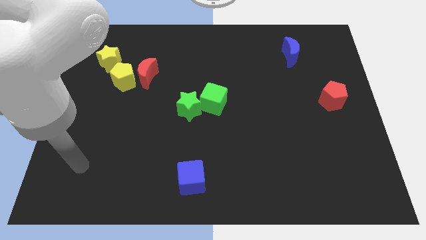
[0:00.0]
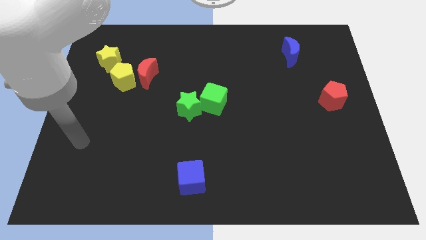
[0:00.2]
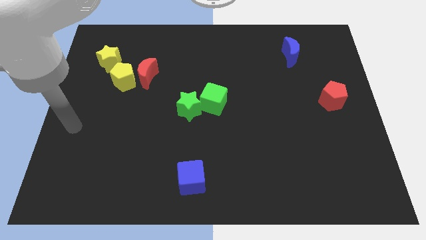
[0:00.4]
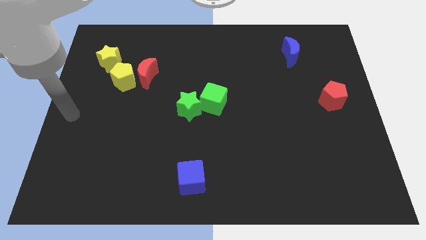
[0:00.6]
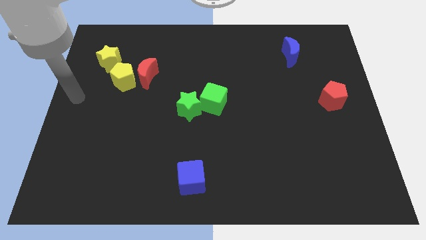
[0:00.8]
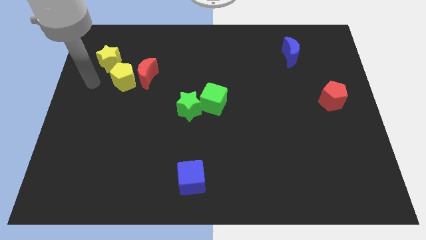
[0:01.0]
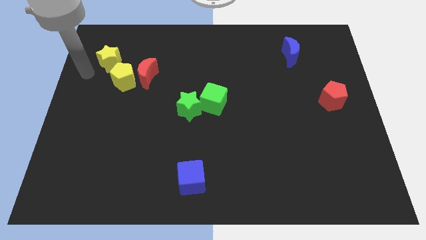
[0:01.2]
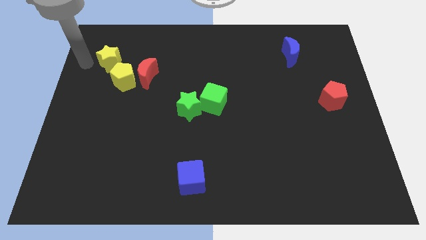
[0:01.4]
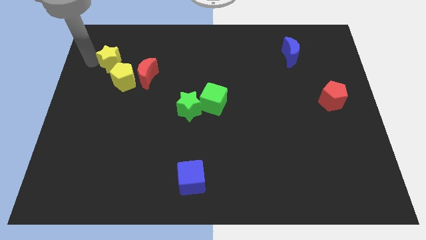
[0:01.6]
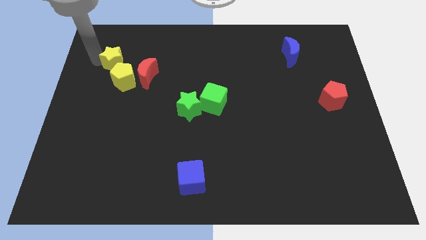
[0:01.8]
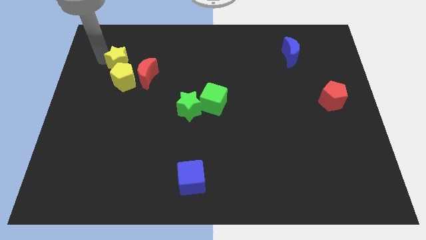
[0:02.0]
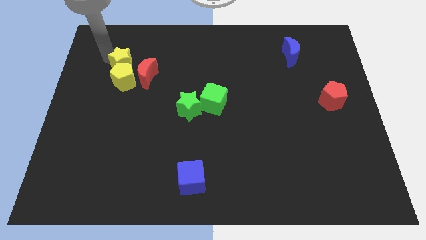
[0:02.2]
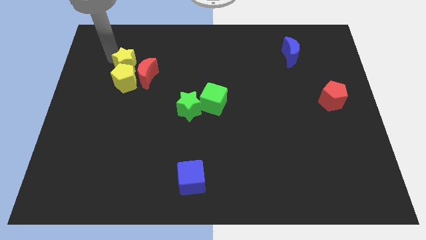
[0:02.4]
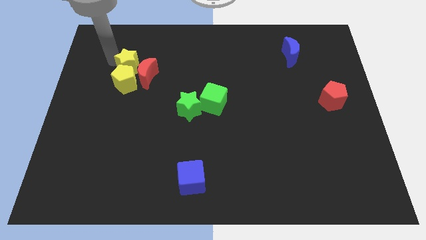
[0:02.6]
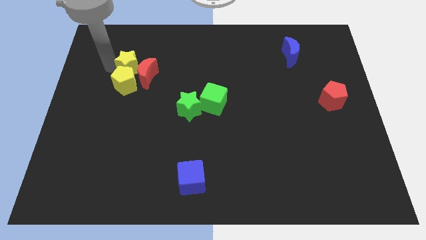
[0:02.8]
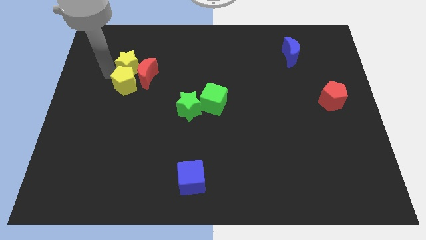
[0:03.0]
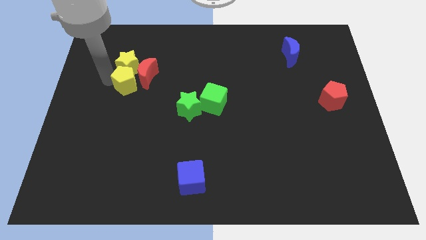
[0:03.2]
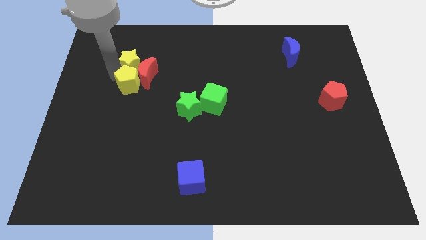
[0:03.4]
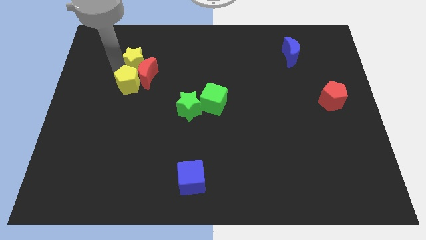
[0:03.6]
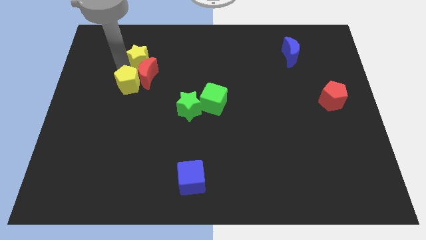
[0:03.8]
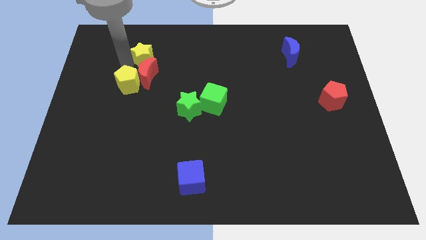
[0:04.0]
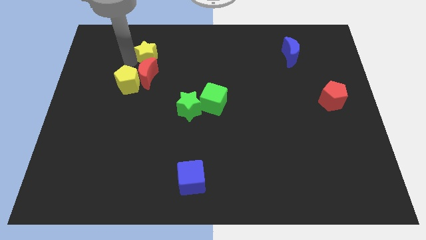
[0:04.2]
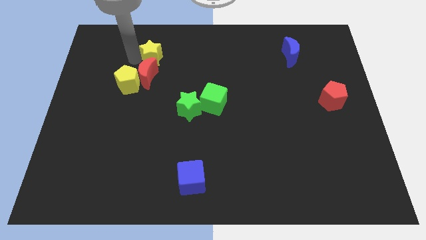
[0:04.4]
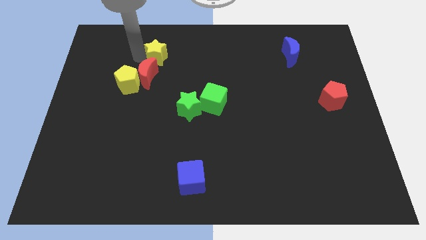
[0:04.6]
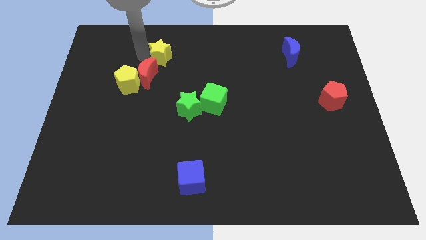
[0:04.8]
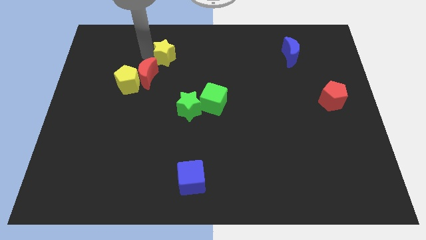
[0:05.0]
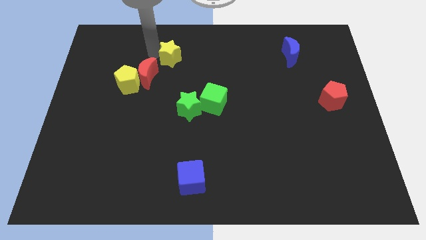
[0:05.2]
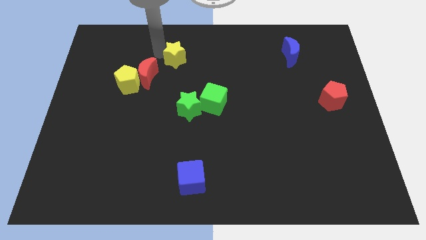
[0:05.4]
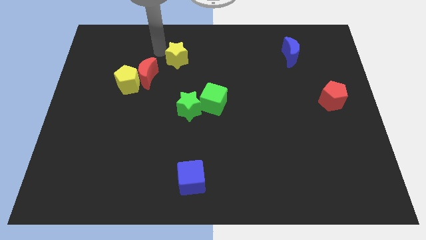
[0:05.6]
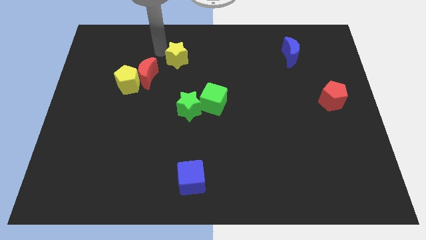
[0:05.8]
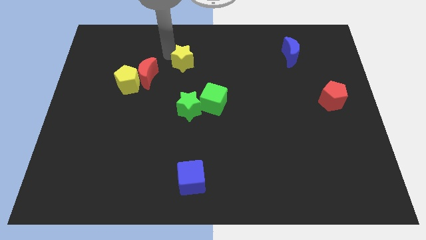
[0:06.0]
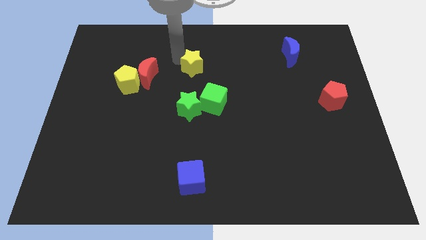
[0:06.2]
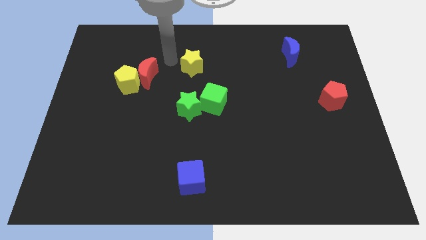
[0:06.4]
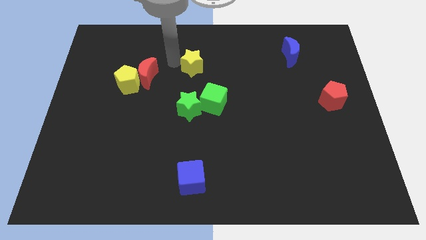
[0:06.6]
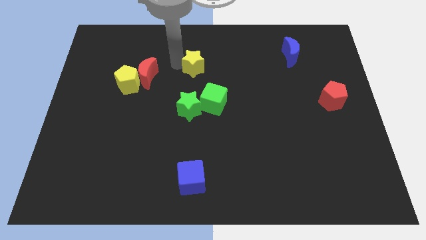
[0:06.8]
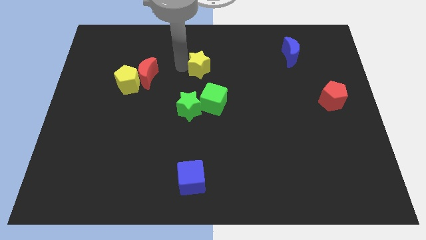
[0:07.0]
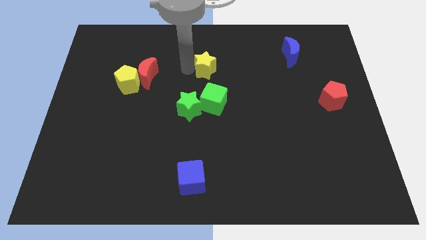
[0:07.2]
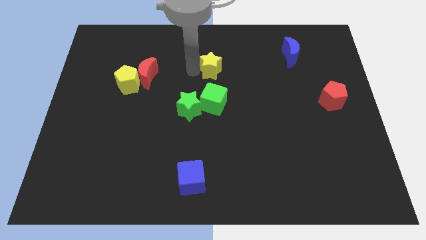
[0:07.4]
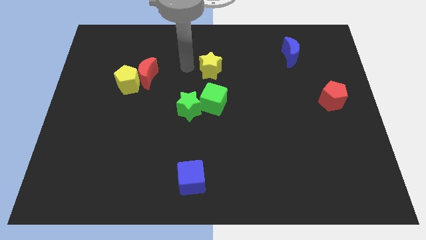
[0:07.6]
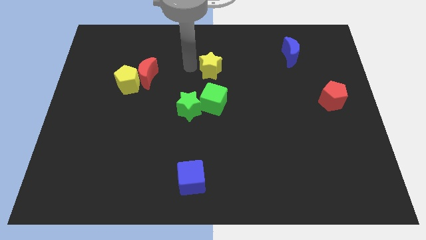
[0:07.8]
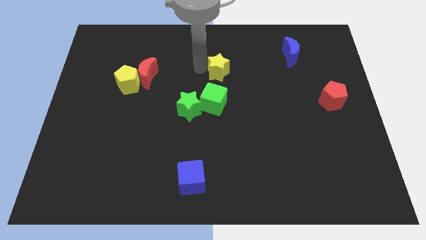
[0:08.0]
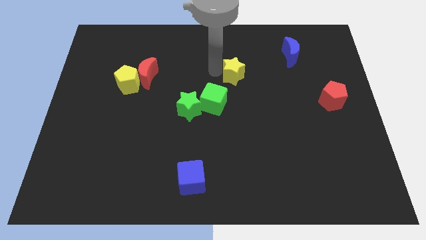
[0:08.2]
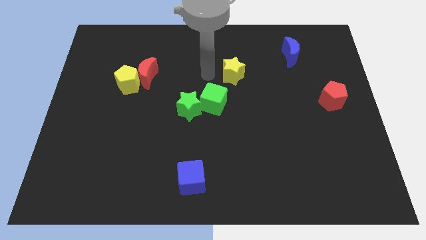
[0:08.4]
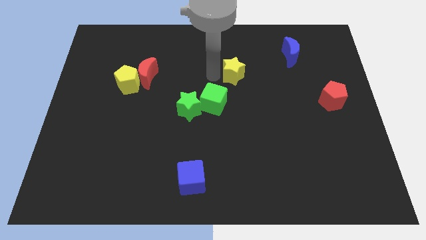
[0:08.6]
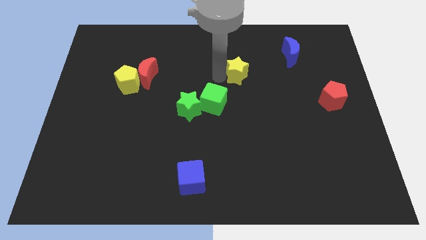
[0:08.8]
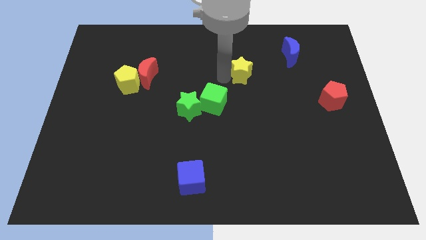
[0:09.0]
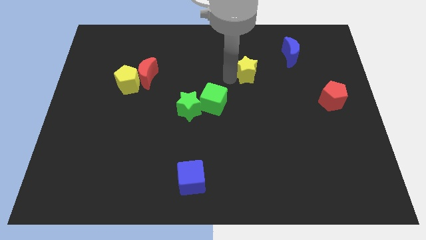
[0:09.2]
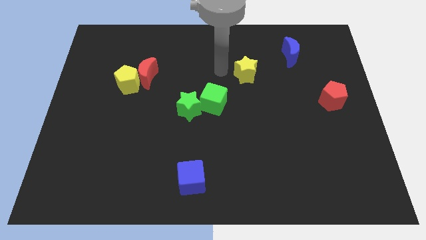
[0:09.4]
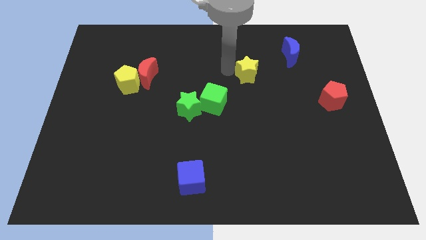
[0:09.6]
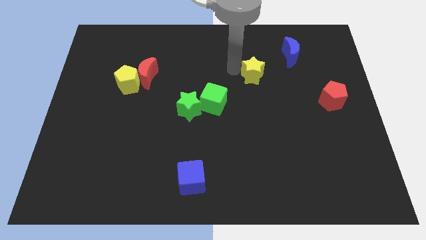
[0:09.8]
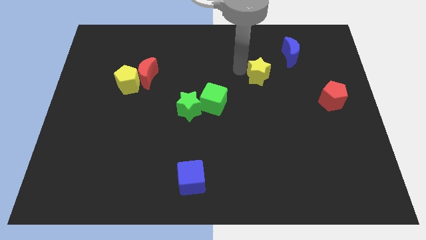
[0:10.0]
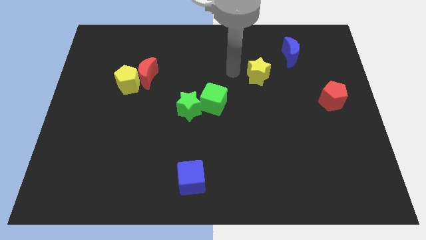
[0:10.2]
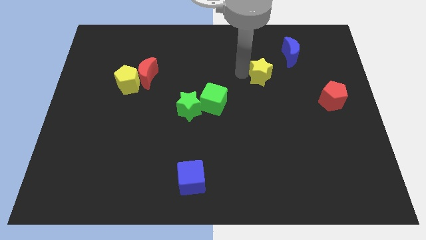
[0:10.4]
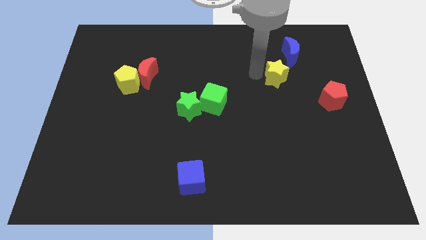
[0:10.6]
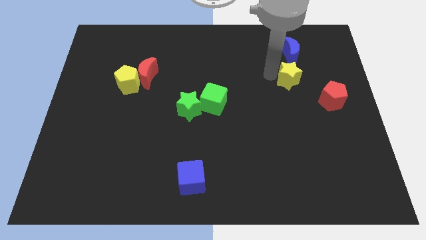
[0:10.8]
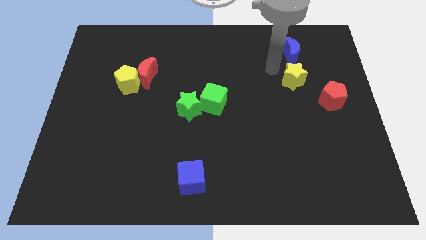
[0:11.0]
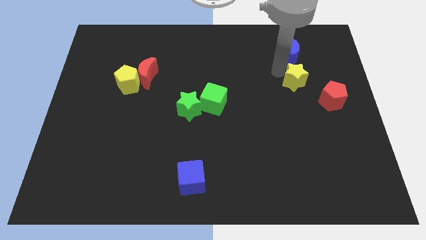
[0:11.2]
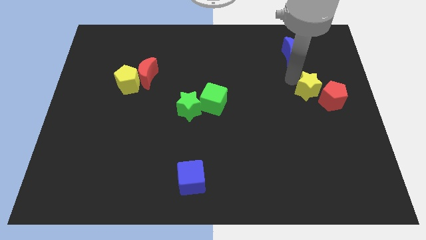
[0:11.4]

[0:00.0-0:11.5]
move the yellow star towards the red pentagon

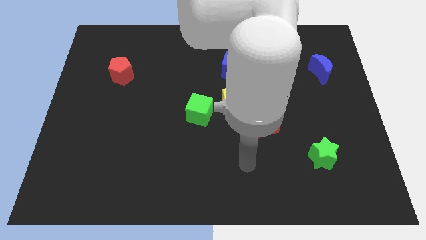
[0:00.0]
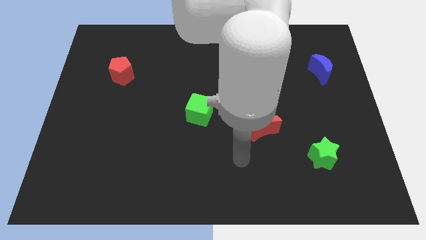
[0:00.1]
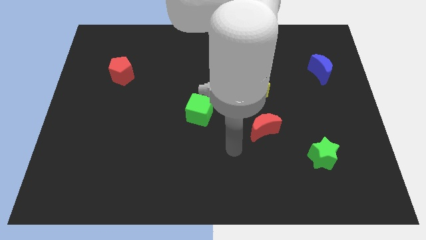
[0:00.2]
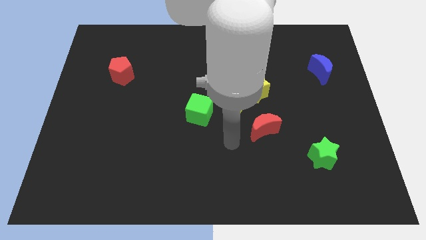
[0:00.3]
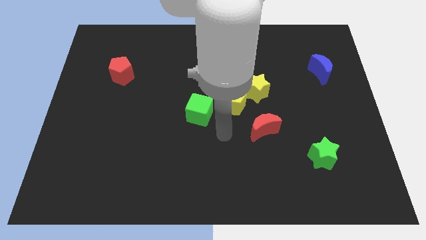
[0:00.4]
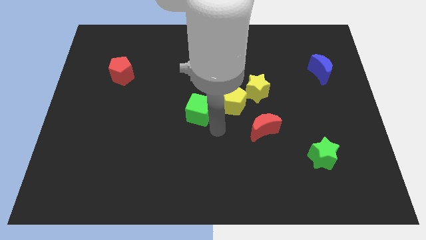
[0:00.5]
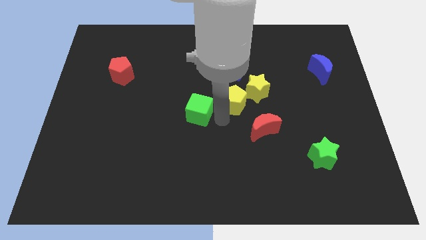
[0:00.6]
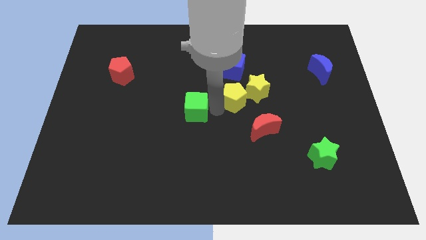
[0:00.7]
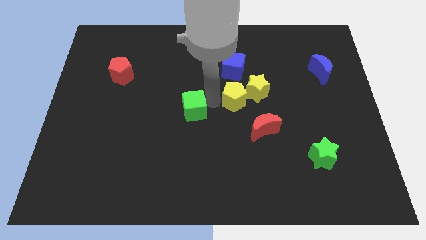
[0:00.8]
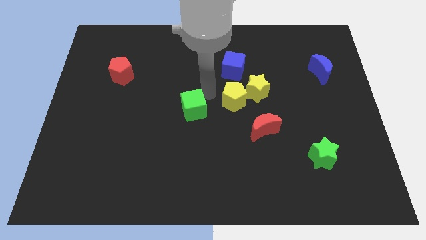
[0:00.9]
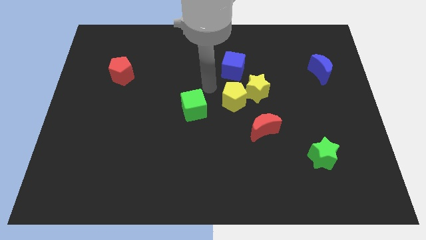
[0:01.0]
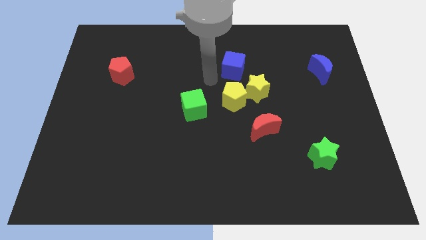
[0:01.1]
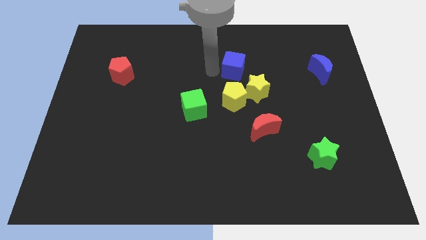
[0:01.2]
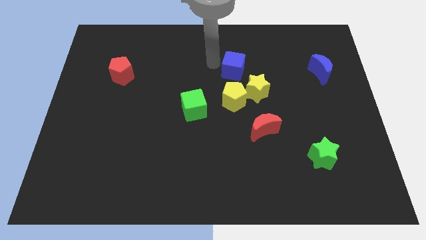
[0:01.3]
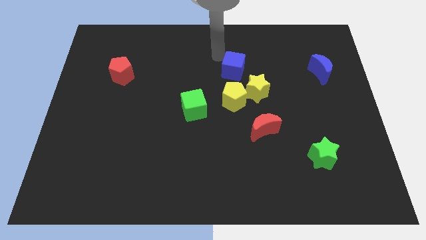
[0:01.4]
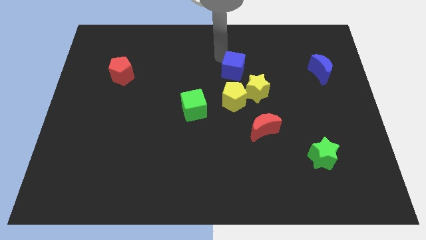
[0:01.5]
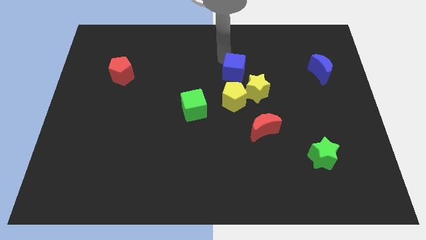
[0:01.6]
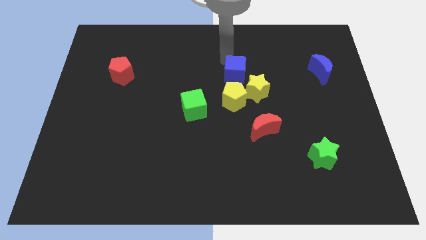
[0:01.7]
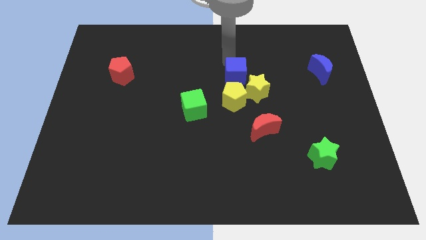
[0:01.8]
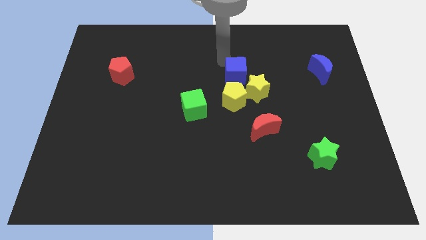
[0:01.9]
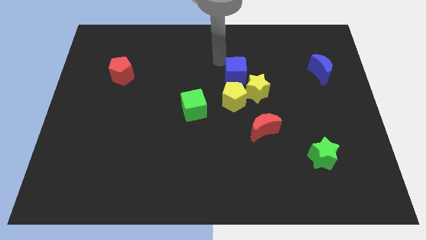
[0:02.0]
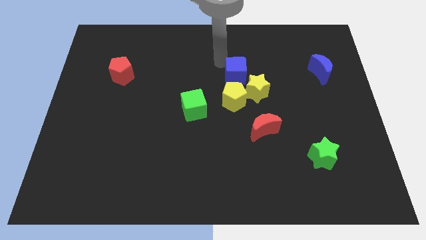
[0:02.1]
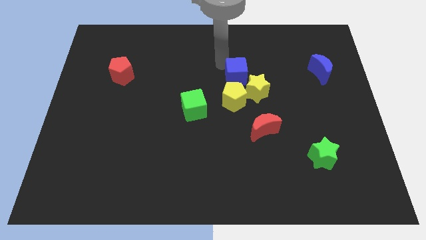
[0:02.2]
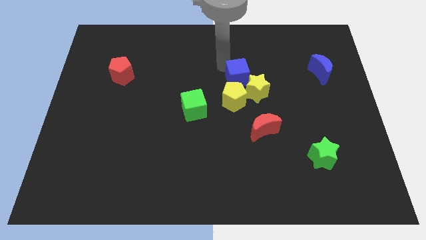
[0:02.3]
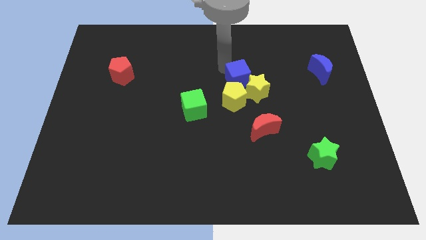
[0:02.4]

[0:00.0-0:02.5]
slide the blue cube towards the yellow star
